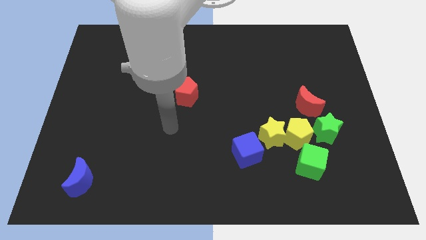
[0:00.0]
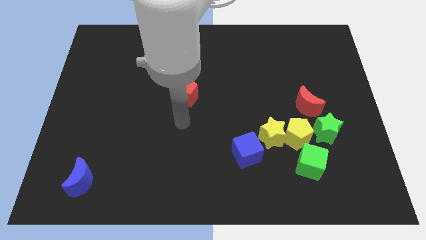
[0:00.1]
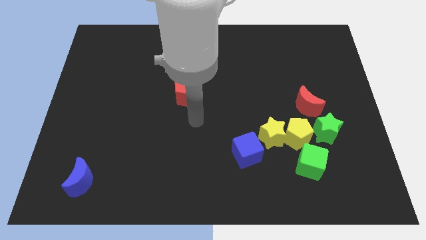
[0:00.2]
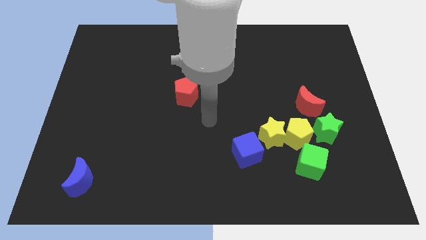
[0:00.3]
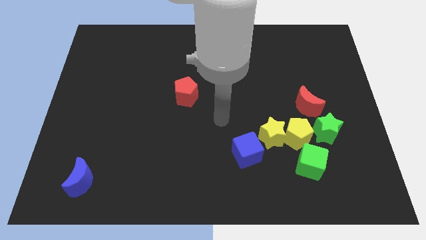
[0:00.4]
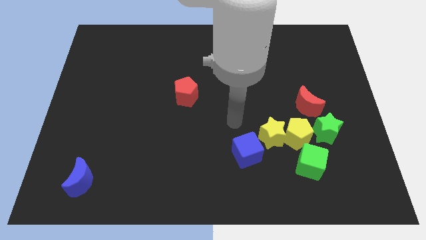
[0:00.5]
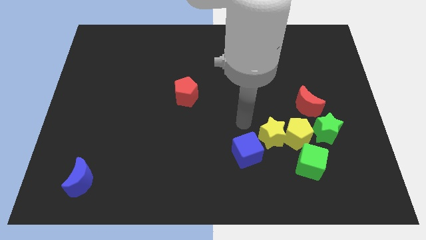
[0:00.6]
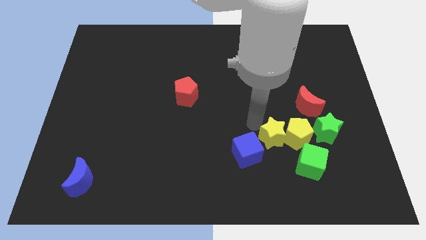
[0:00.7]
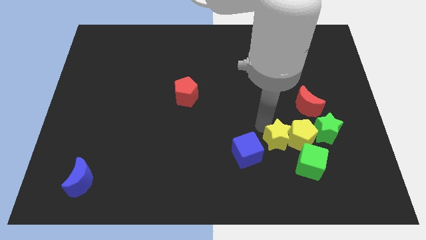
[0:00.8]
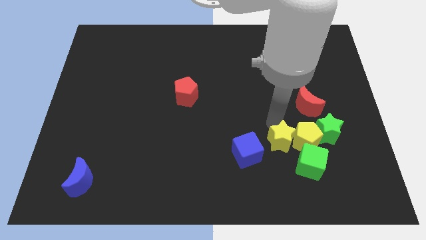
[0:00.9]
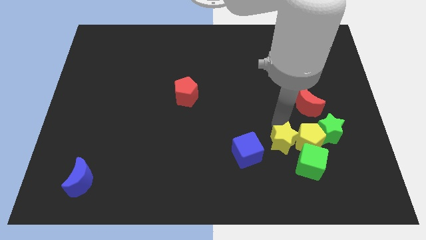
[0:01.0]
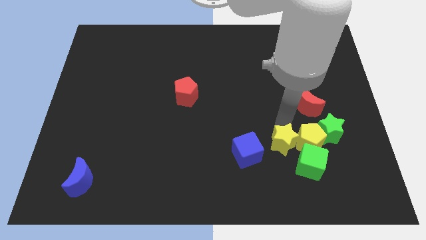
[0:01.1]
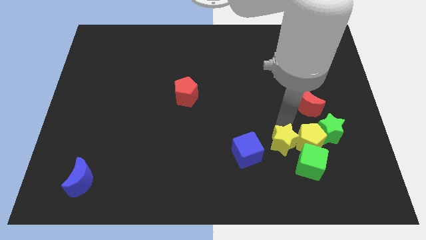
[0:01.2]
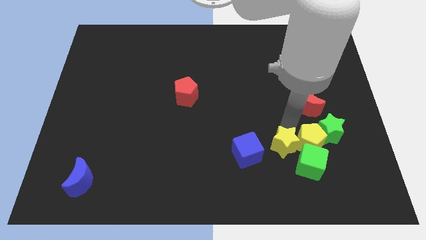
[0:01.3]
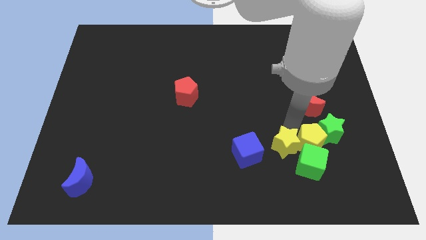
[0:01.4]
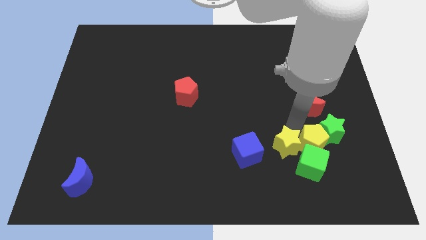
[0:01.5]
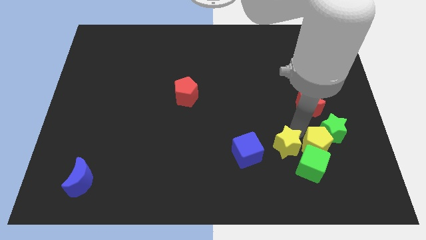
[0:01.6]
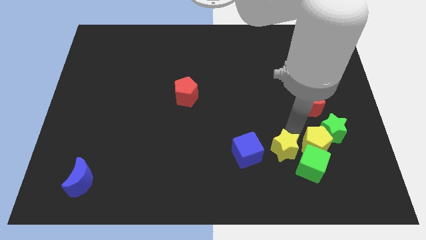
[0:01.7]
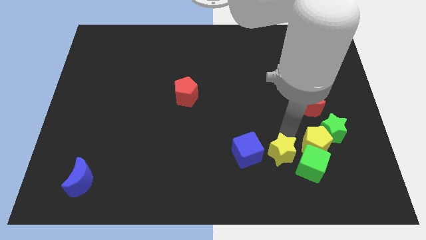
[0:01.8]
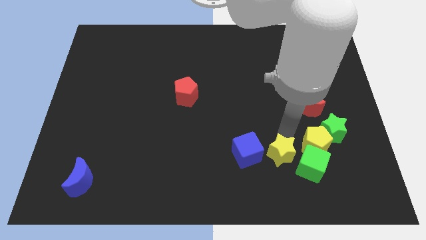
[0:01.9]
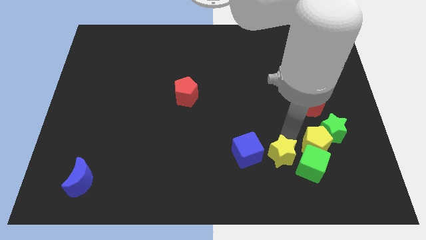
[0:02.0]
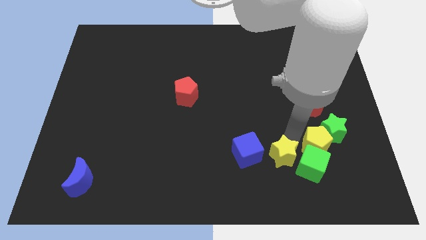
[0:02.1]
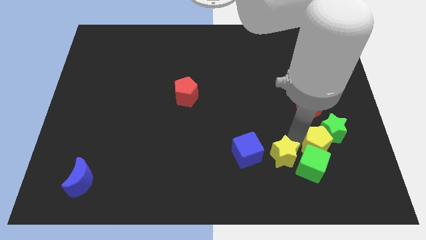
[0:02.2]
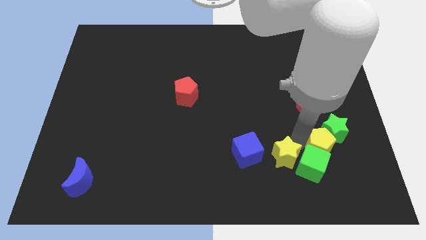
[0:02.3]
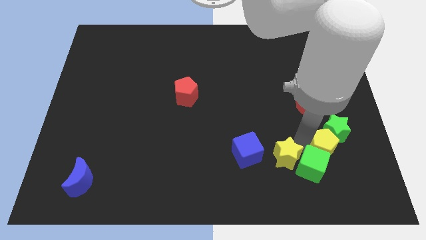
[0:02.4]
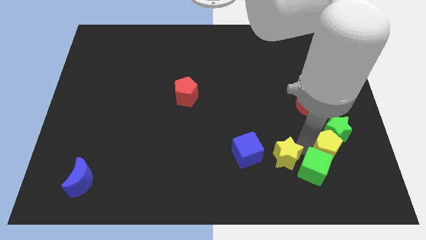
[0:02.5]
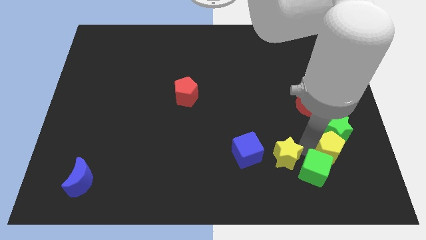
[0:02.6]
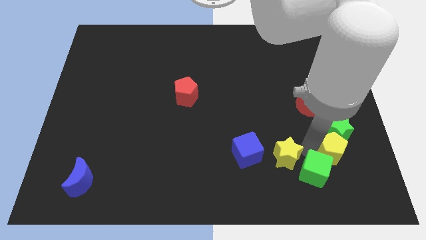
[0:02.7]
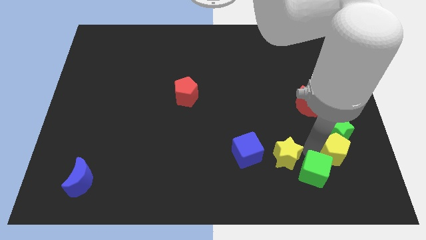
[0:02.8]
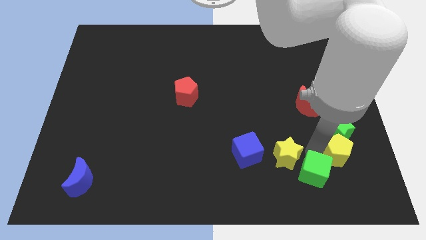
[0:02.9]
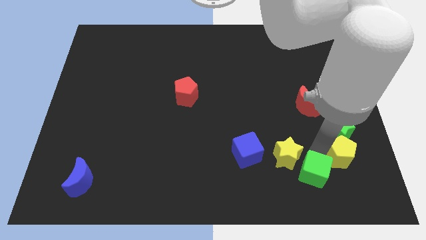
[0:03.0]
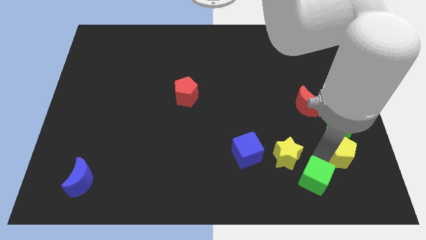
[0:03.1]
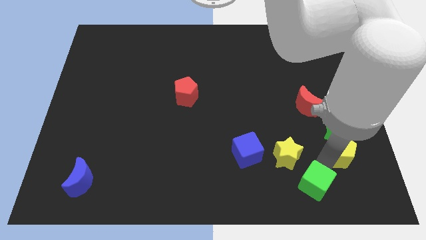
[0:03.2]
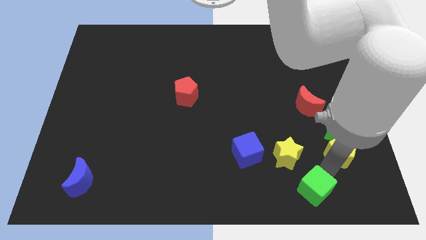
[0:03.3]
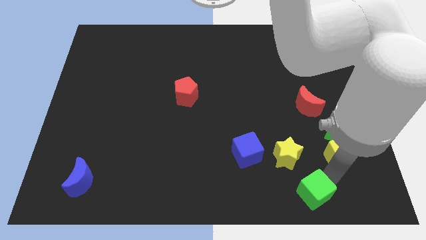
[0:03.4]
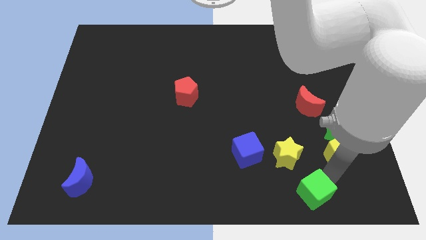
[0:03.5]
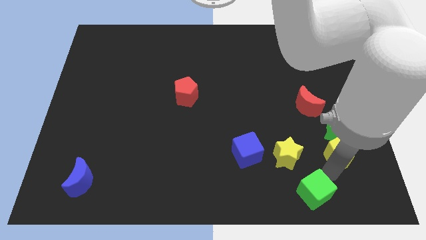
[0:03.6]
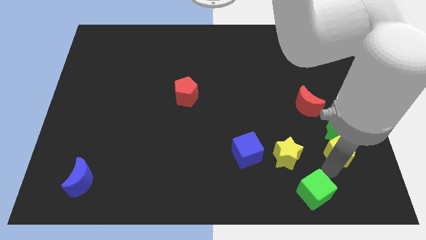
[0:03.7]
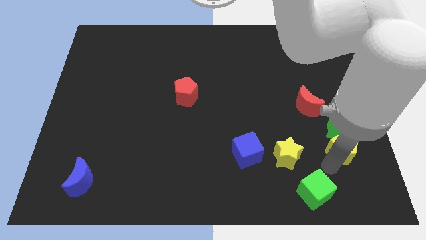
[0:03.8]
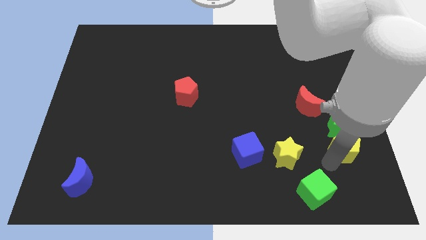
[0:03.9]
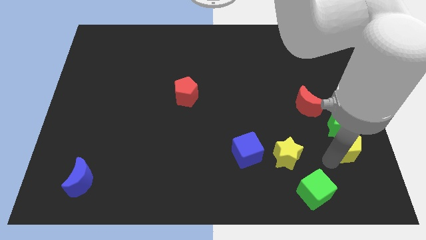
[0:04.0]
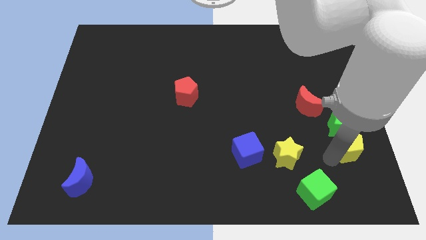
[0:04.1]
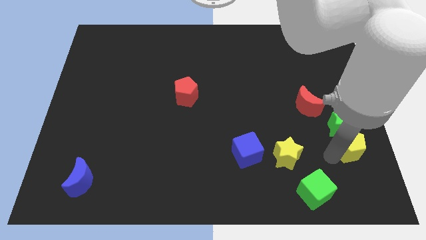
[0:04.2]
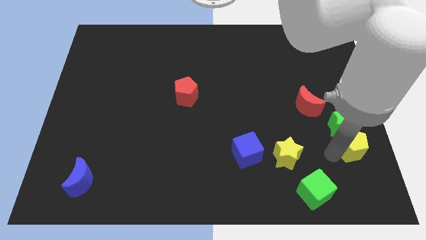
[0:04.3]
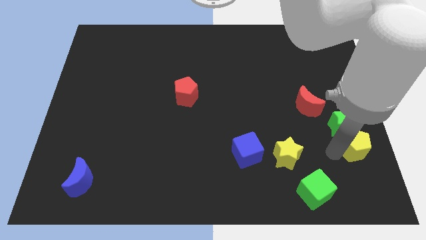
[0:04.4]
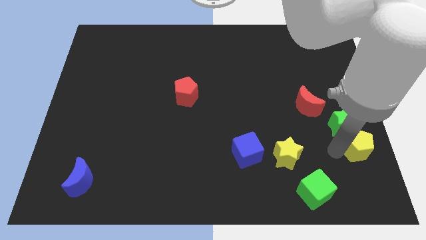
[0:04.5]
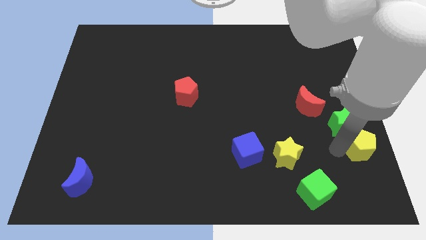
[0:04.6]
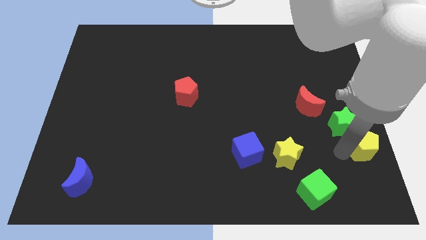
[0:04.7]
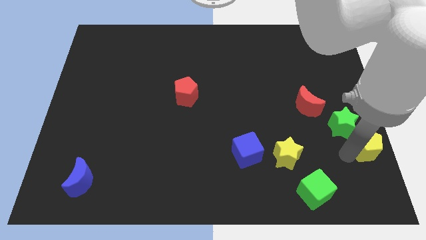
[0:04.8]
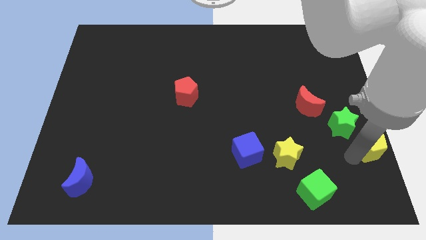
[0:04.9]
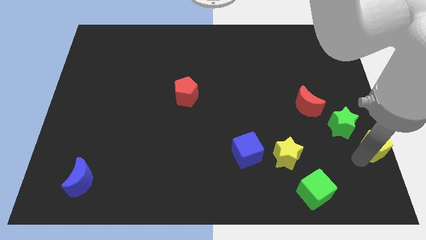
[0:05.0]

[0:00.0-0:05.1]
put the yellow pentagon to the center right

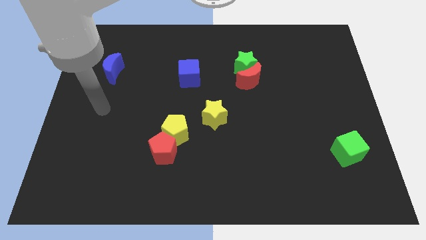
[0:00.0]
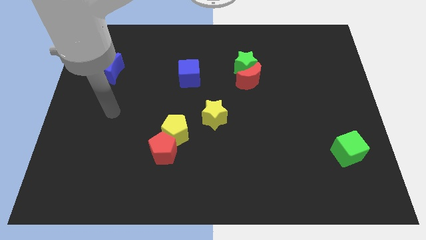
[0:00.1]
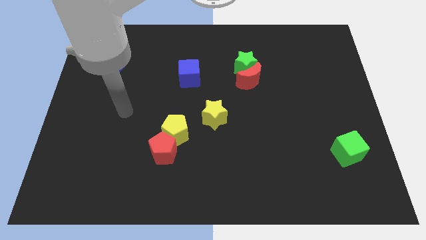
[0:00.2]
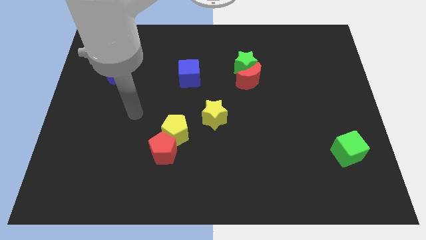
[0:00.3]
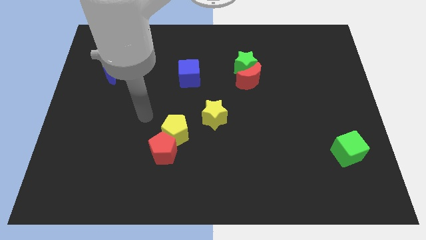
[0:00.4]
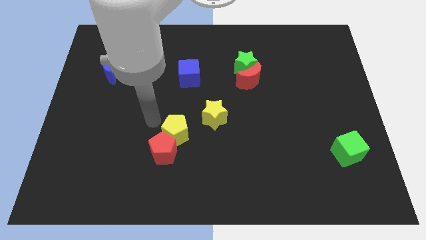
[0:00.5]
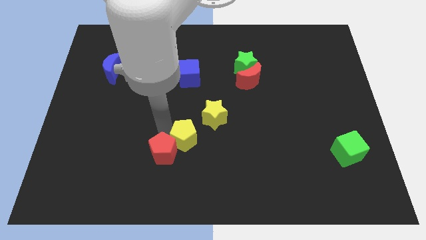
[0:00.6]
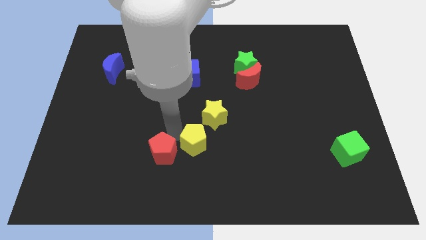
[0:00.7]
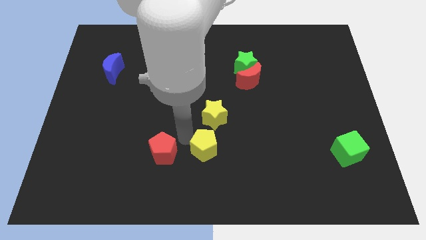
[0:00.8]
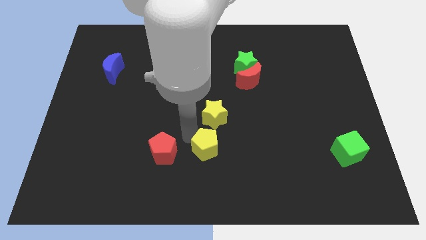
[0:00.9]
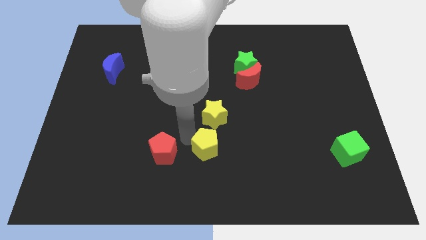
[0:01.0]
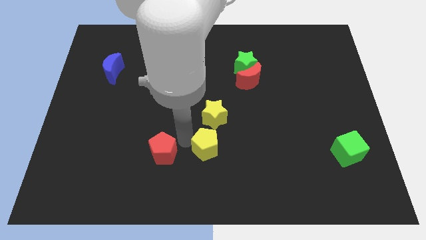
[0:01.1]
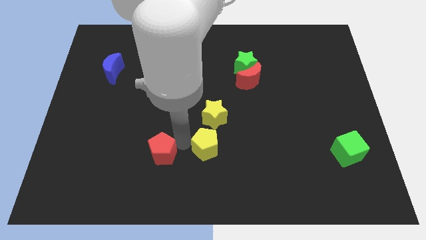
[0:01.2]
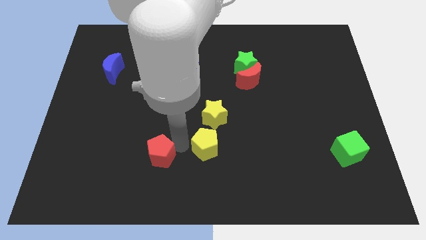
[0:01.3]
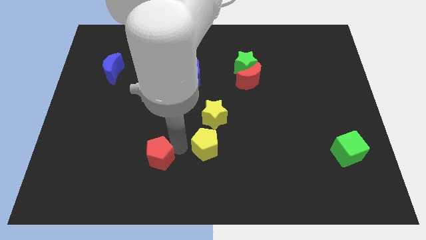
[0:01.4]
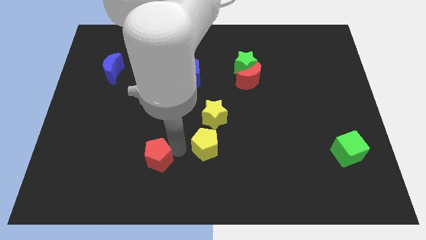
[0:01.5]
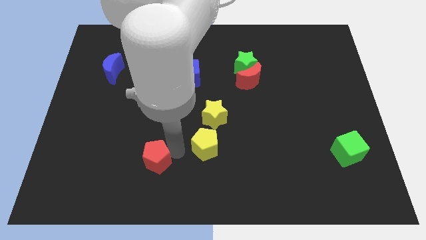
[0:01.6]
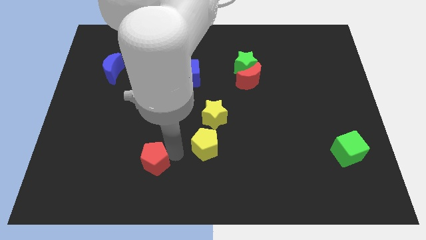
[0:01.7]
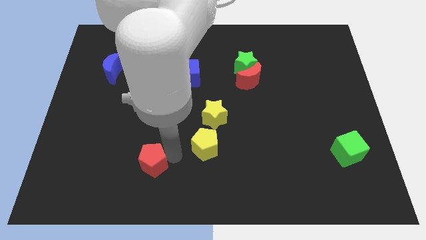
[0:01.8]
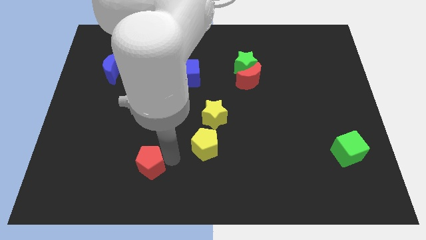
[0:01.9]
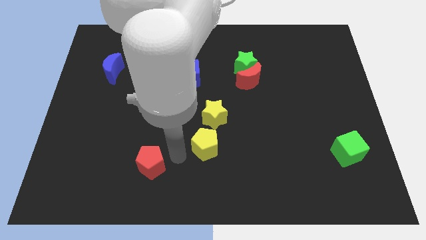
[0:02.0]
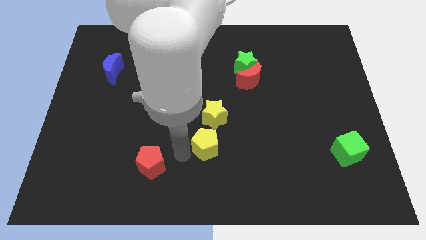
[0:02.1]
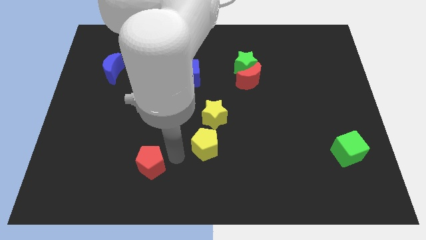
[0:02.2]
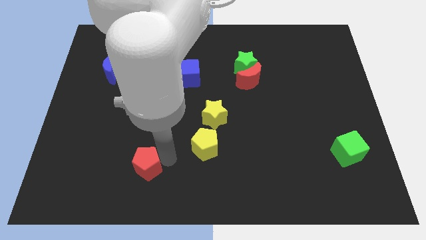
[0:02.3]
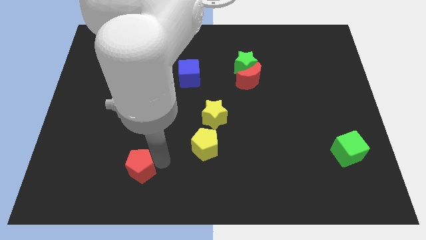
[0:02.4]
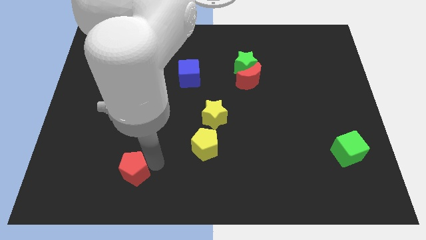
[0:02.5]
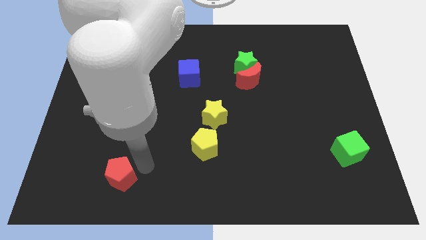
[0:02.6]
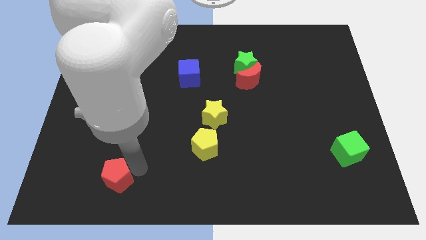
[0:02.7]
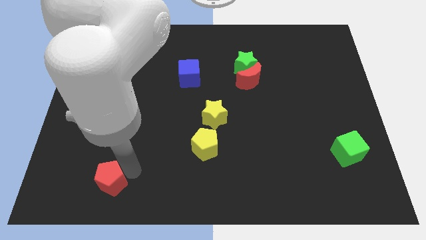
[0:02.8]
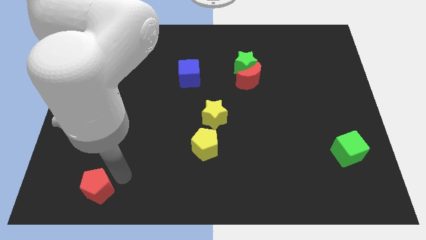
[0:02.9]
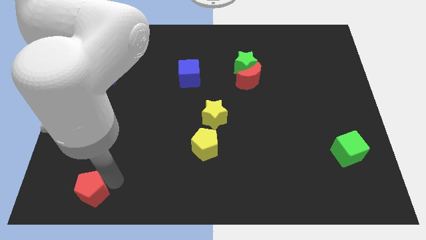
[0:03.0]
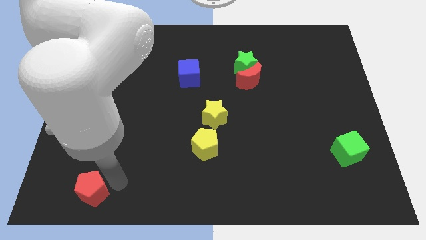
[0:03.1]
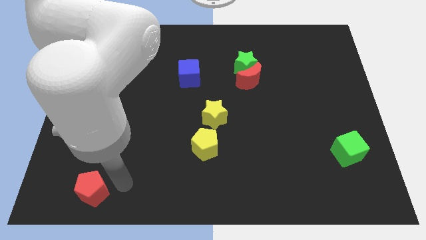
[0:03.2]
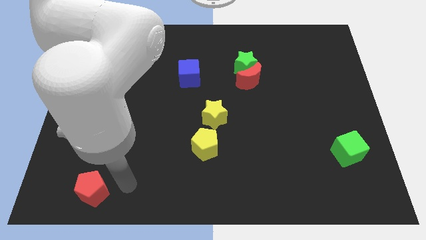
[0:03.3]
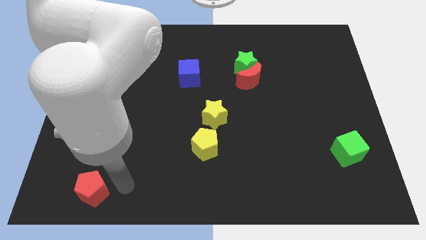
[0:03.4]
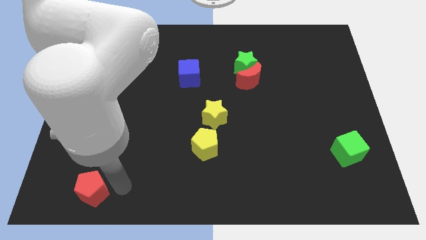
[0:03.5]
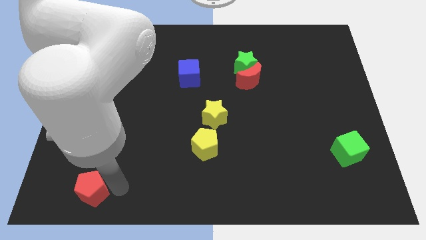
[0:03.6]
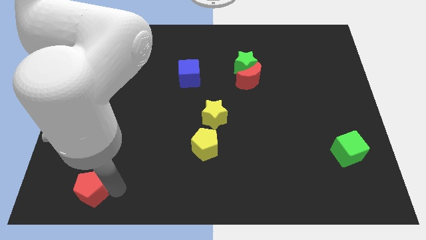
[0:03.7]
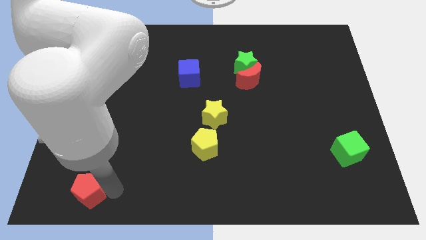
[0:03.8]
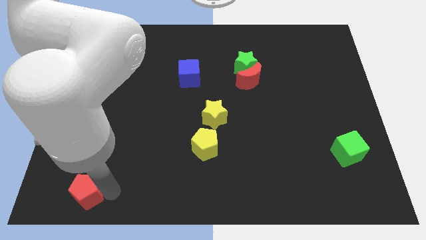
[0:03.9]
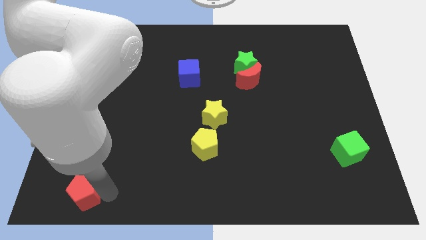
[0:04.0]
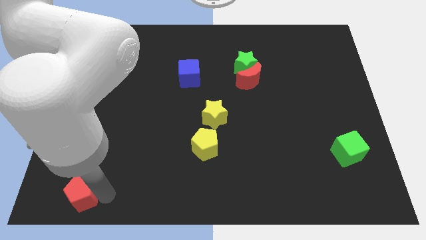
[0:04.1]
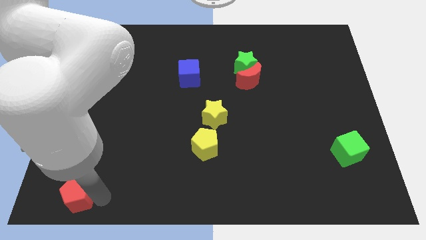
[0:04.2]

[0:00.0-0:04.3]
put the red pentagon to the bottom left
